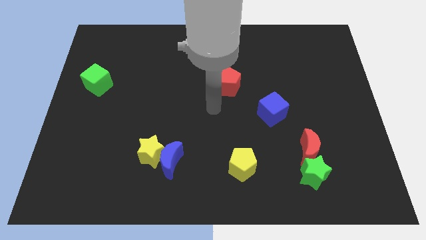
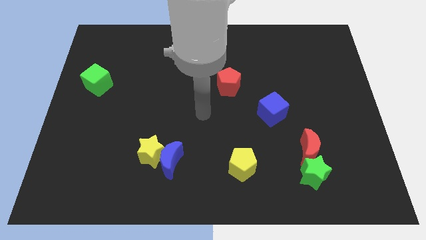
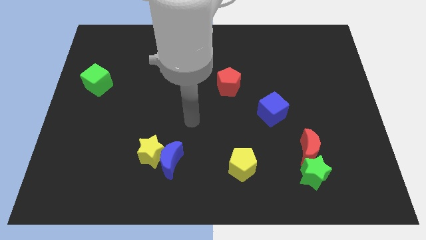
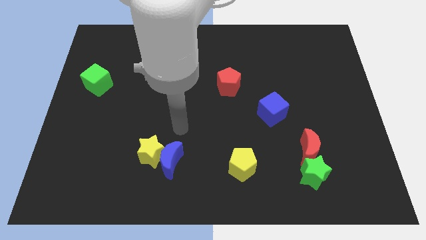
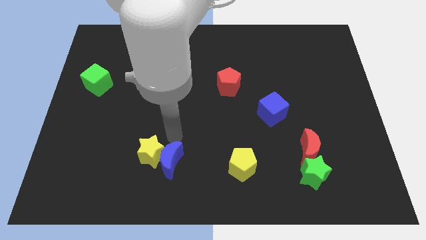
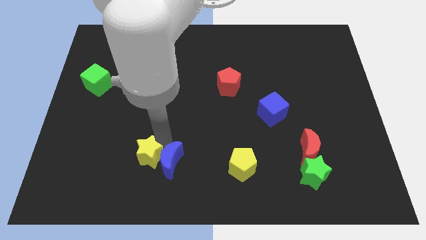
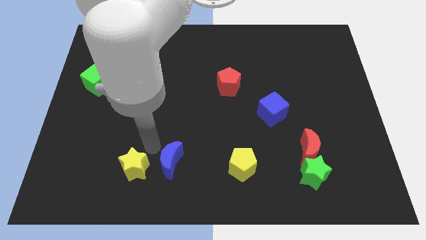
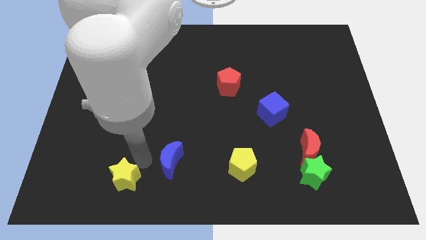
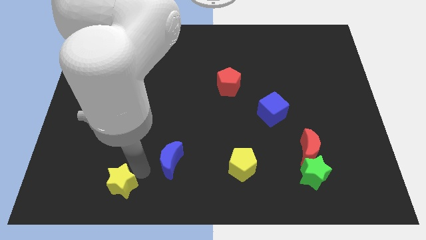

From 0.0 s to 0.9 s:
separate the blue moon from the yellow star

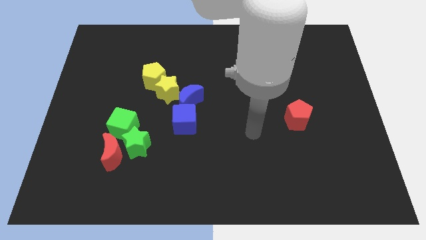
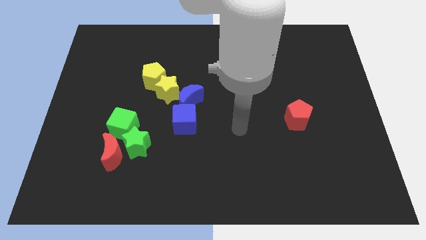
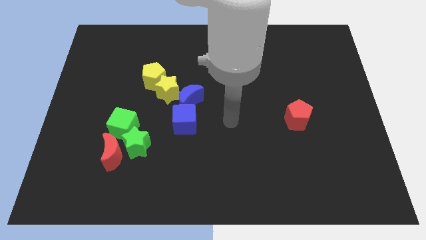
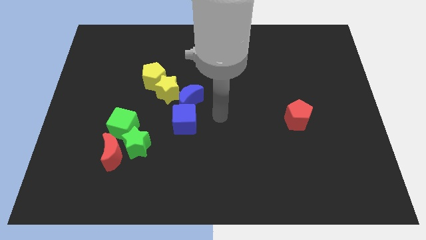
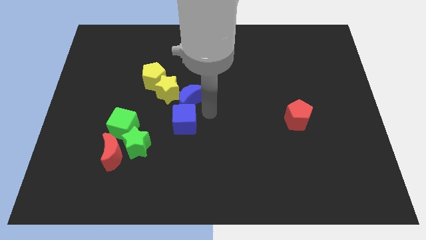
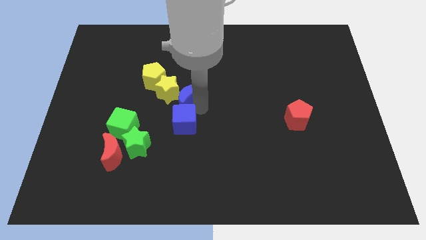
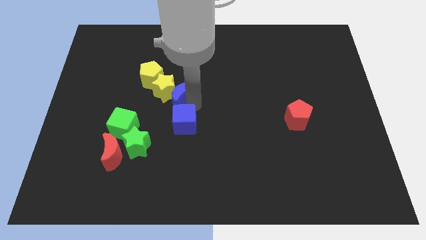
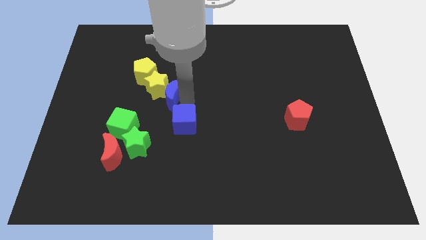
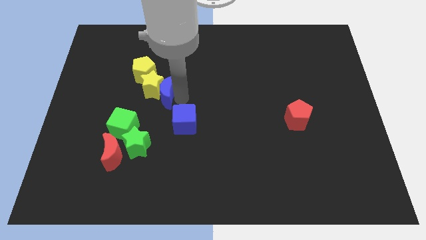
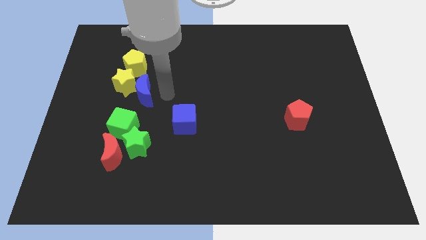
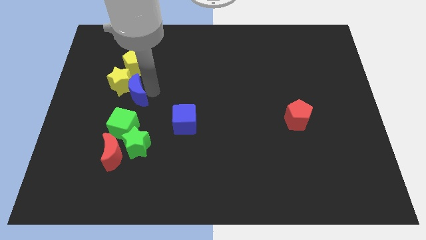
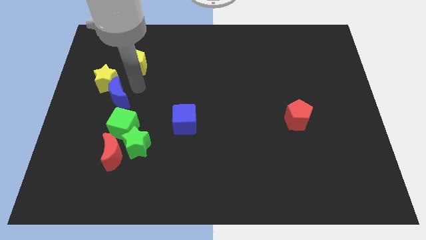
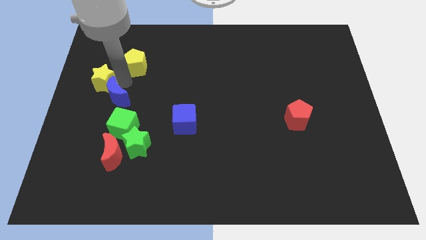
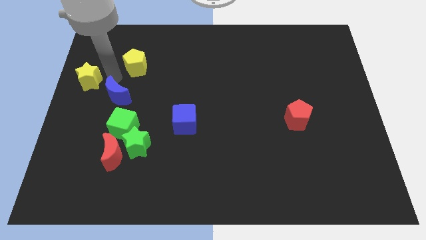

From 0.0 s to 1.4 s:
pull the yellow pentagon apart from the yellow star

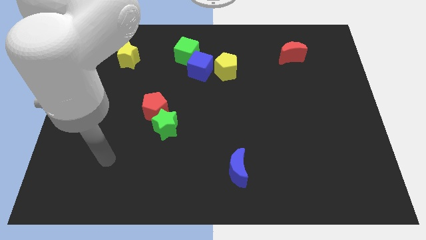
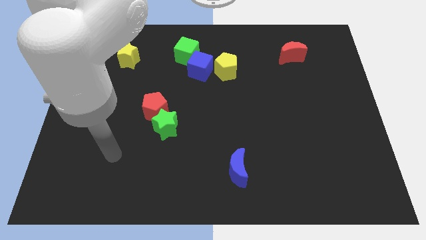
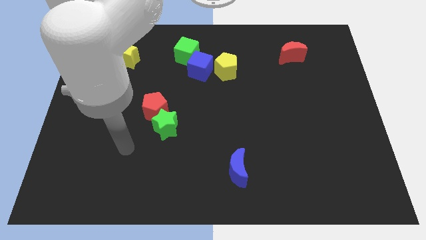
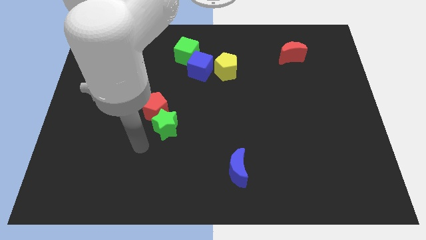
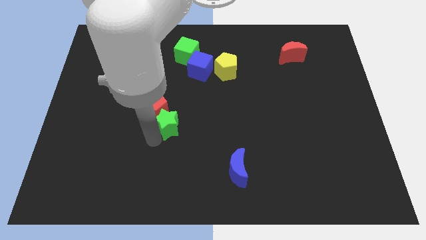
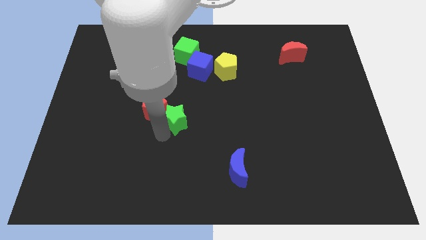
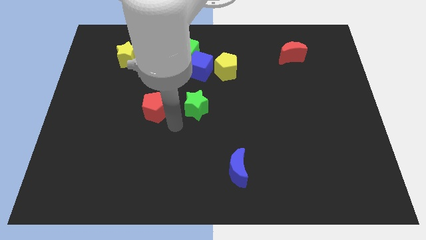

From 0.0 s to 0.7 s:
separate the red pentagon from the green star

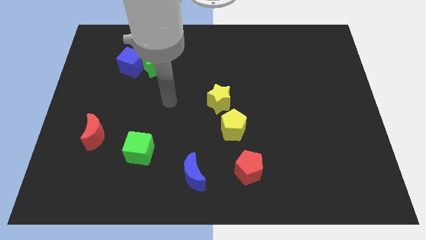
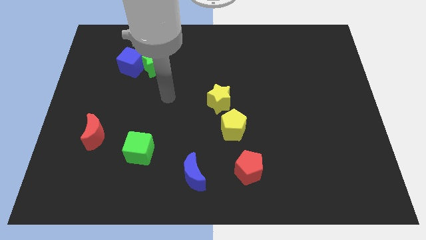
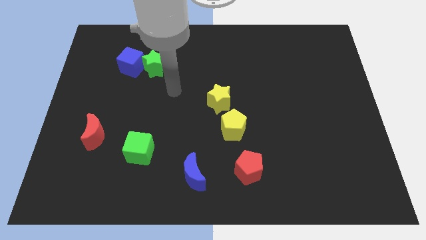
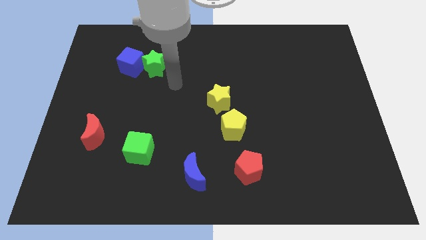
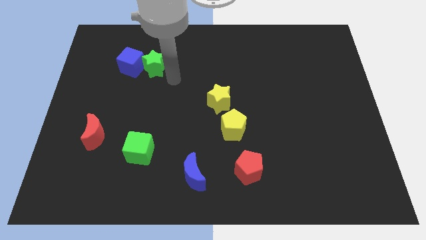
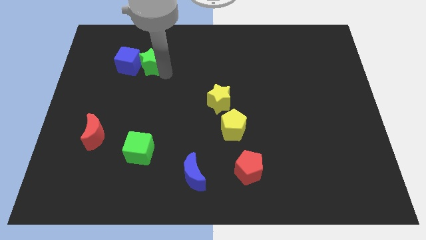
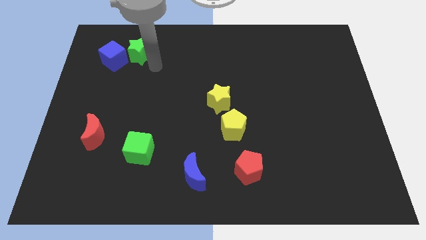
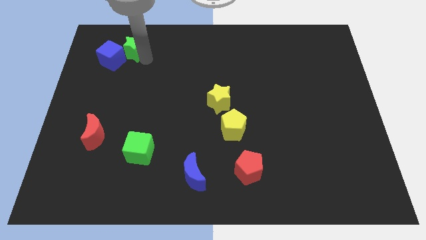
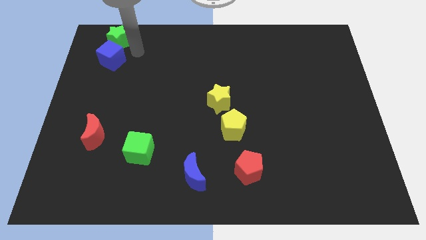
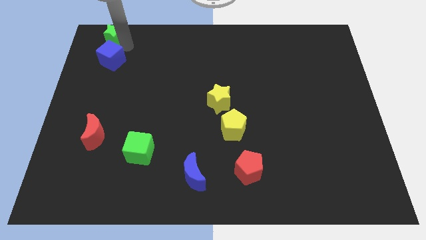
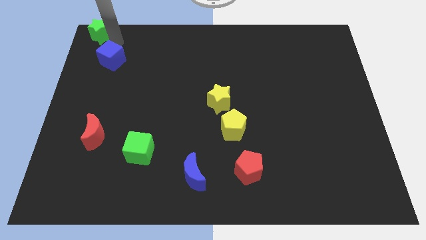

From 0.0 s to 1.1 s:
pull the blue cube apart from the green star

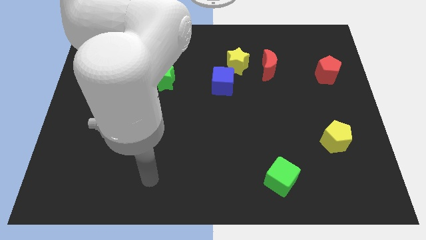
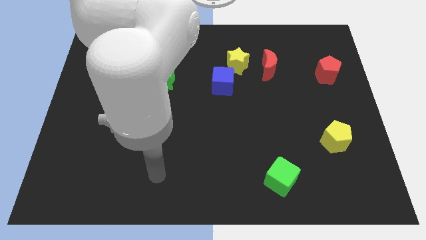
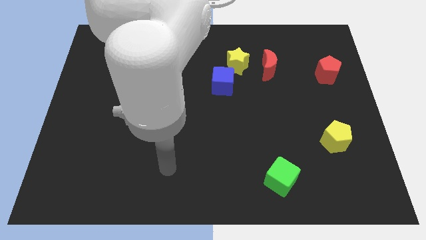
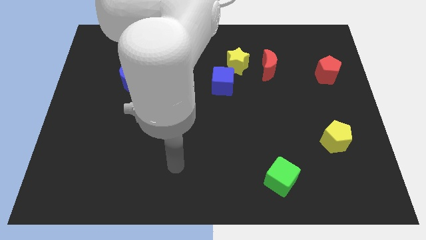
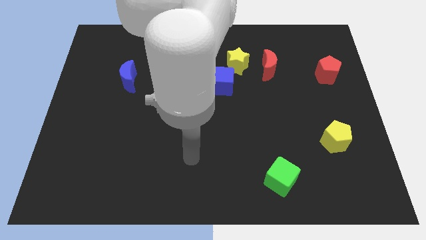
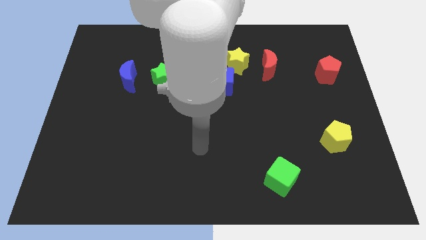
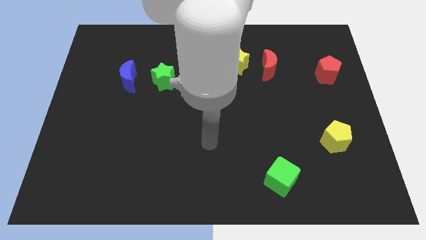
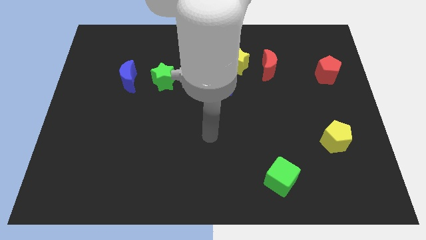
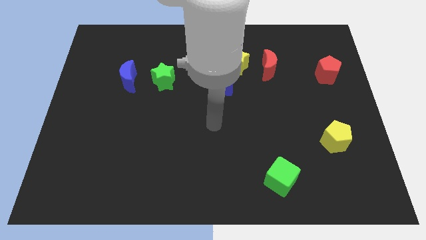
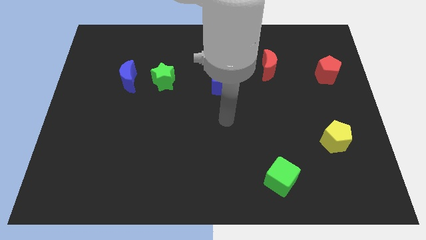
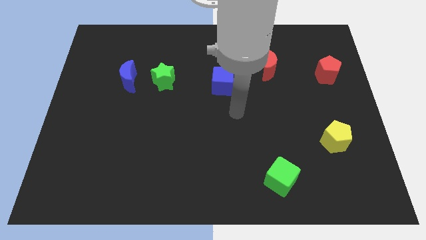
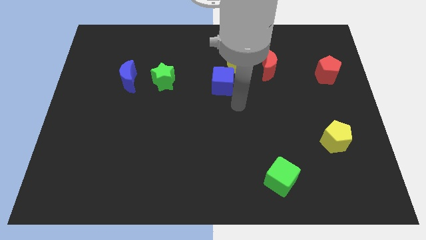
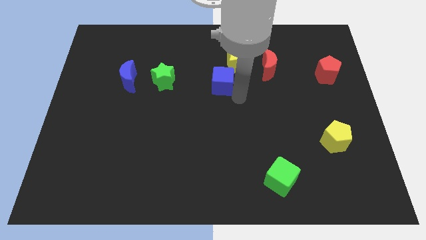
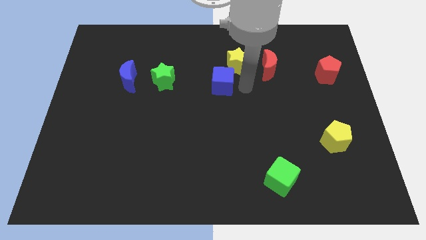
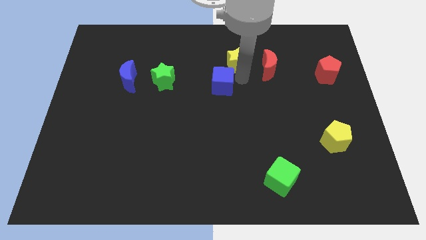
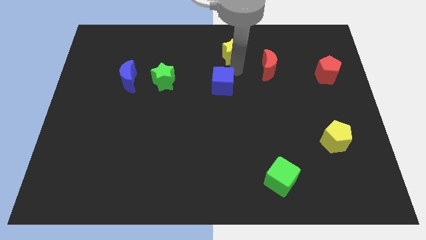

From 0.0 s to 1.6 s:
pull the blue cube apart from the yellow star

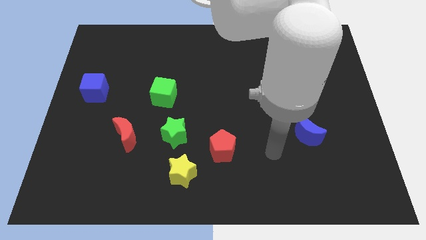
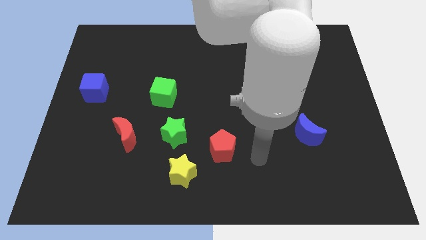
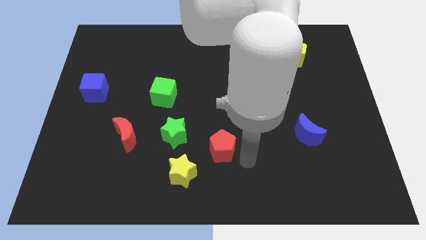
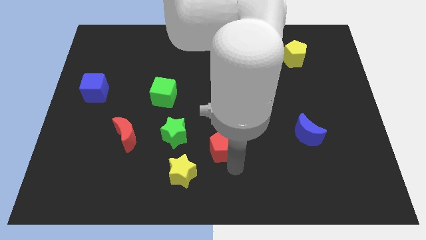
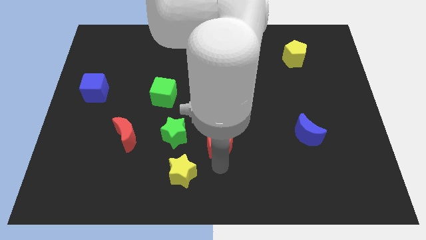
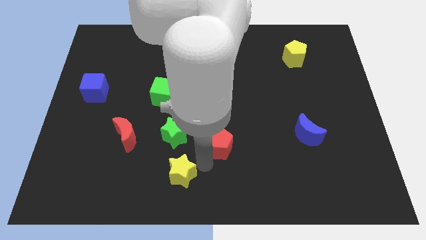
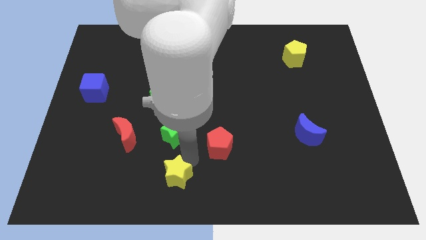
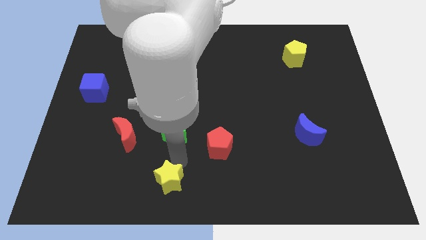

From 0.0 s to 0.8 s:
pull the green star apart from the yellow star

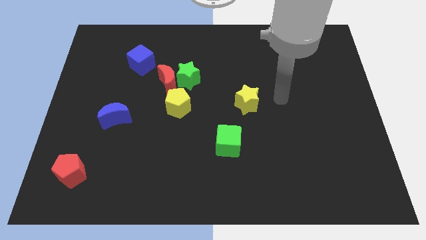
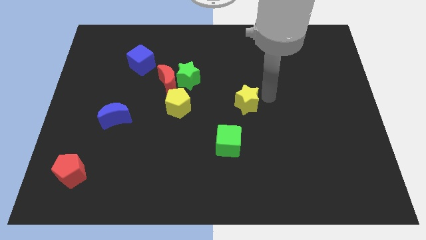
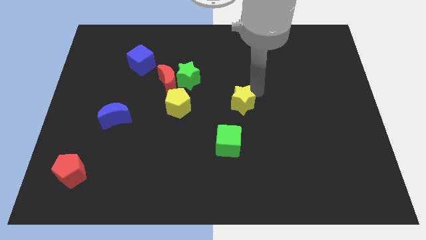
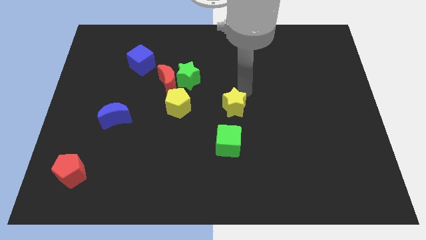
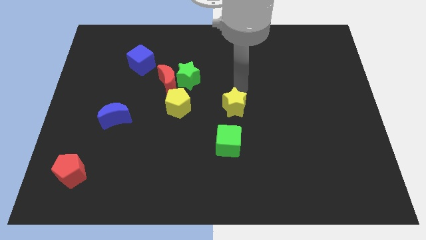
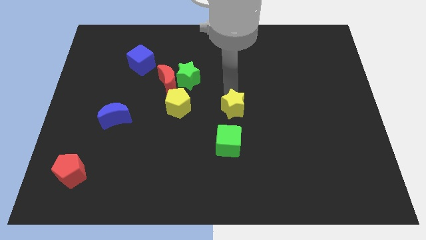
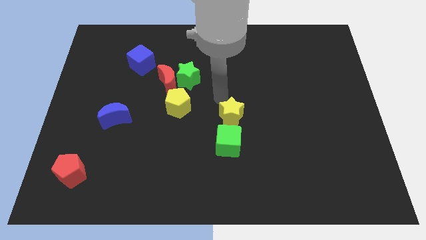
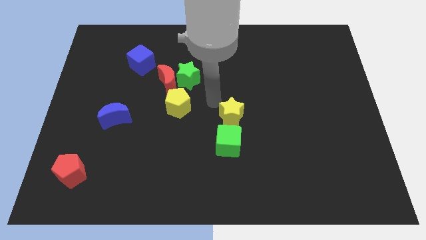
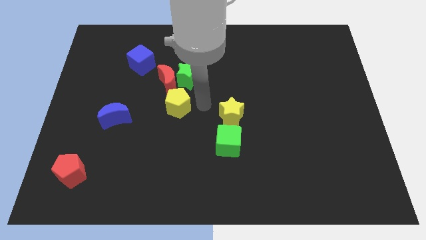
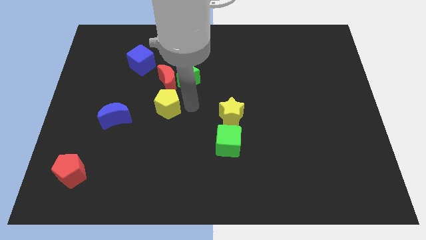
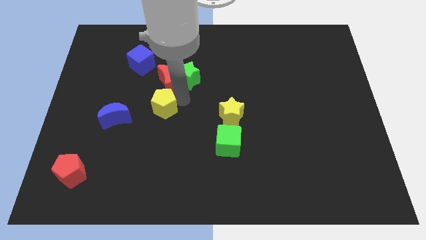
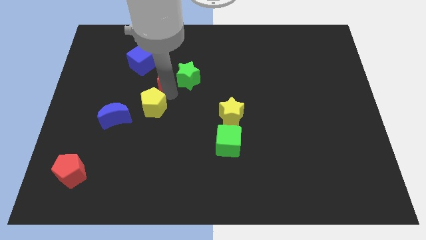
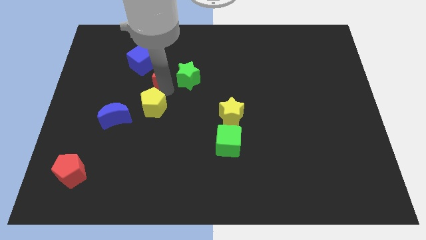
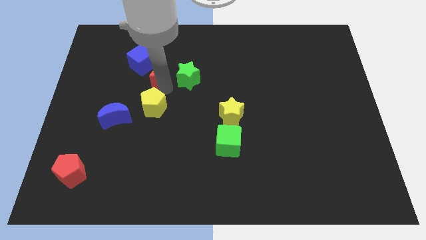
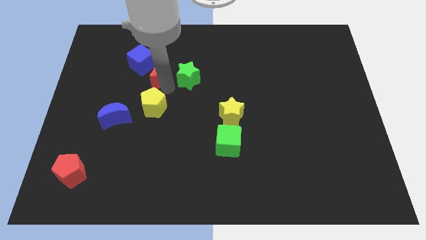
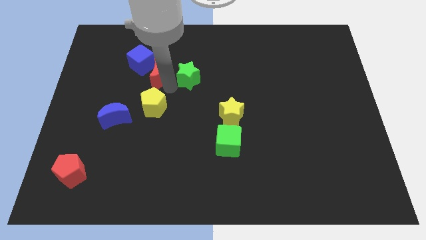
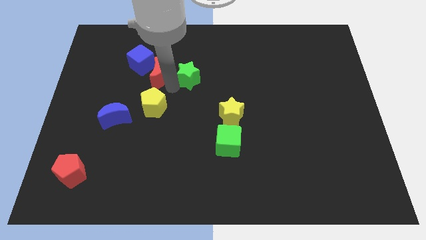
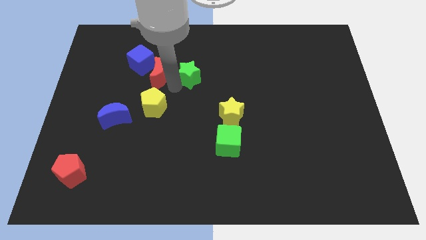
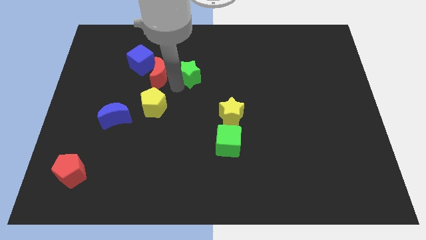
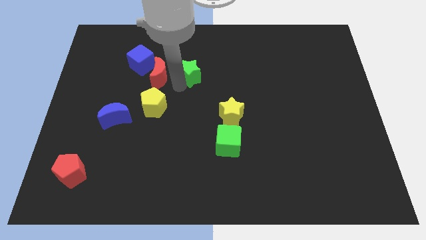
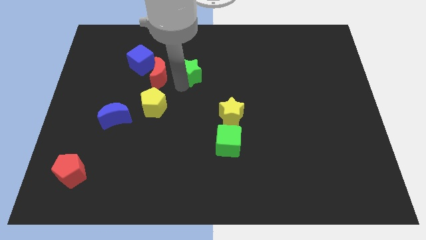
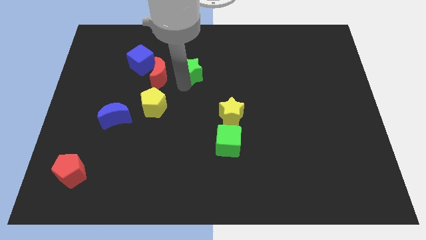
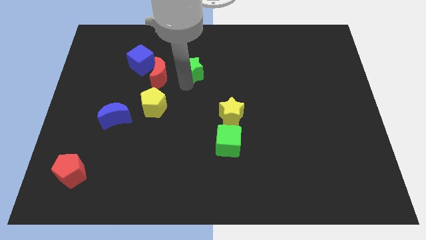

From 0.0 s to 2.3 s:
pull the green star apart from the red moon and yellow pentagon

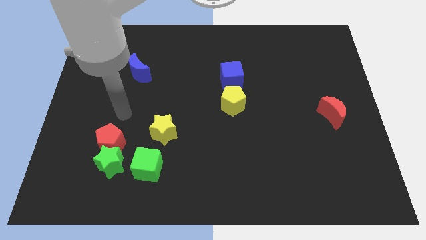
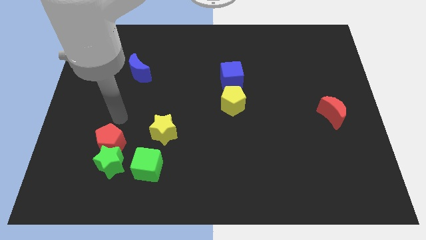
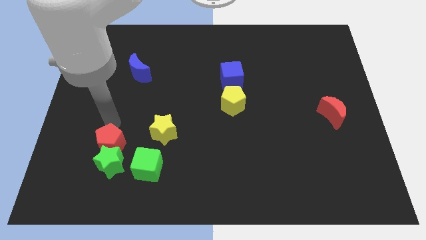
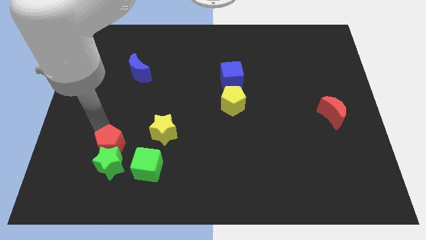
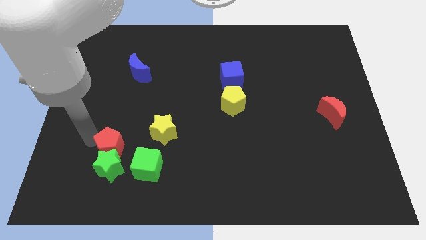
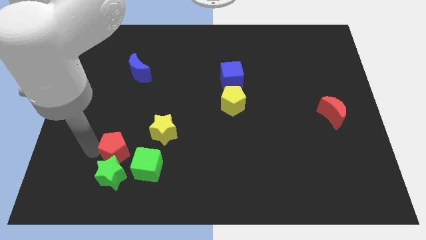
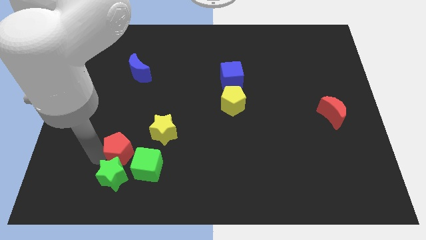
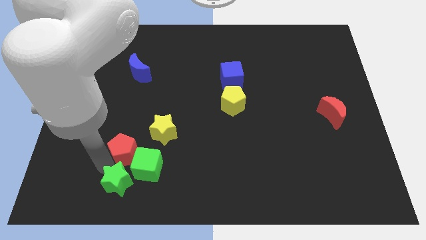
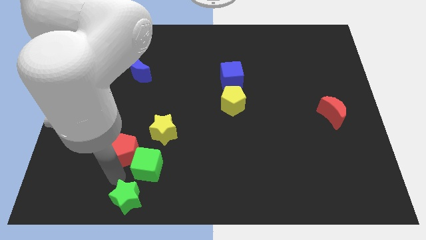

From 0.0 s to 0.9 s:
pull the red pentagon apart from the green star
